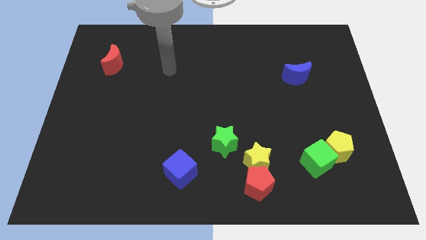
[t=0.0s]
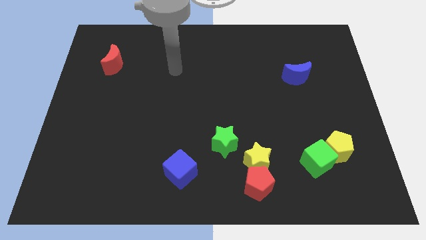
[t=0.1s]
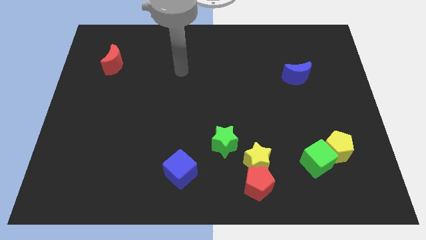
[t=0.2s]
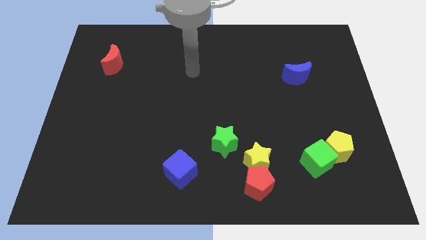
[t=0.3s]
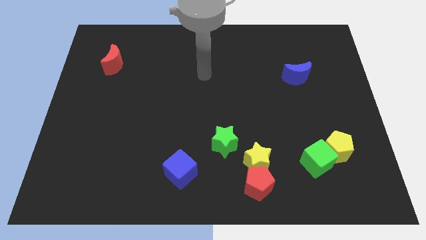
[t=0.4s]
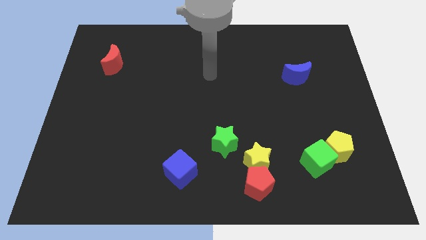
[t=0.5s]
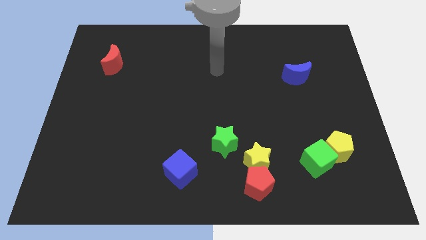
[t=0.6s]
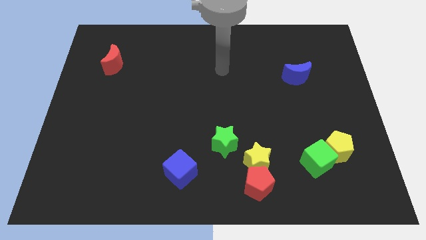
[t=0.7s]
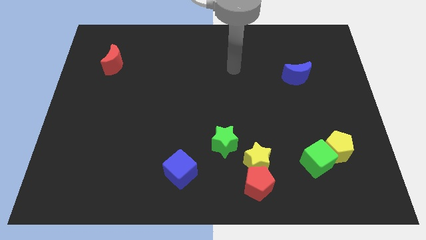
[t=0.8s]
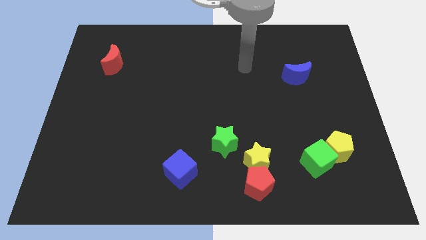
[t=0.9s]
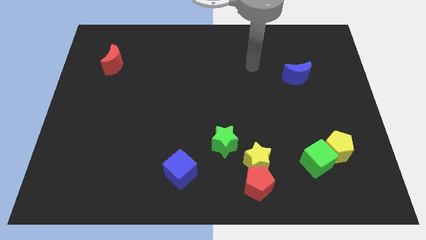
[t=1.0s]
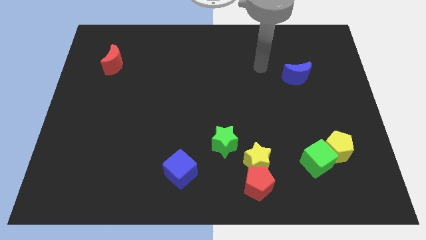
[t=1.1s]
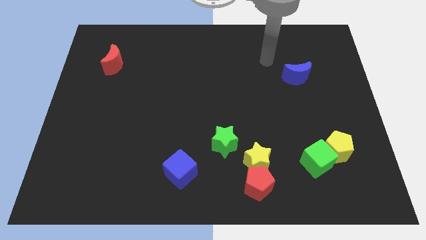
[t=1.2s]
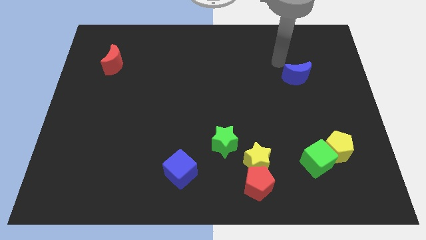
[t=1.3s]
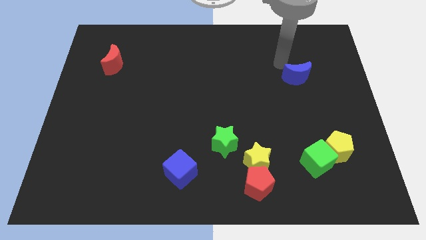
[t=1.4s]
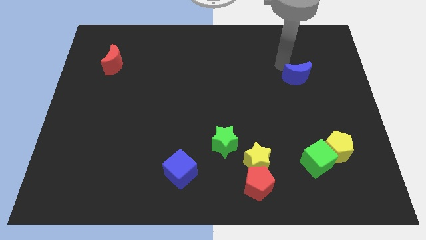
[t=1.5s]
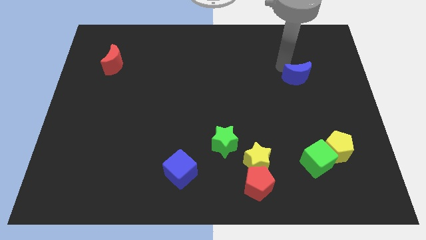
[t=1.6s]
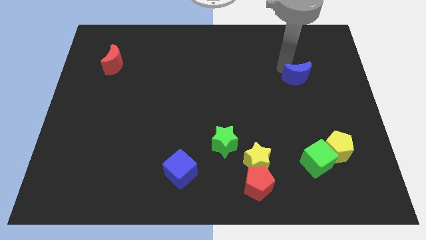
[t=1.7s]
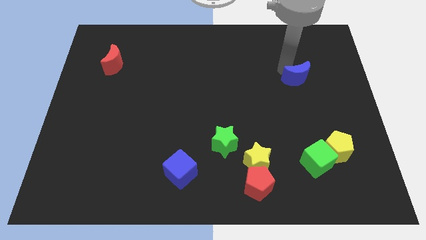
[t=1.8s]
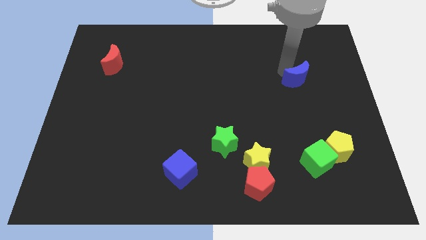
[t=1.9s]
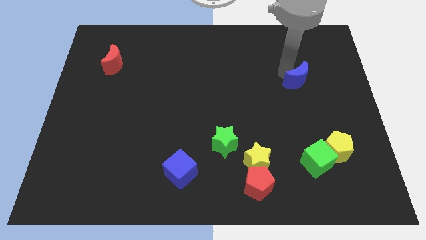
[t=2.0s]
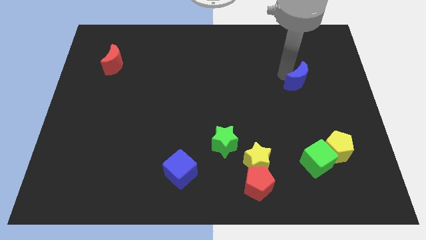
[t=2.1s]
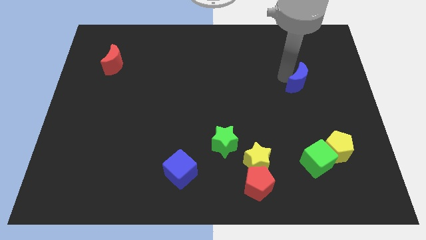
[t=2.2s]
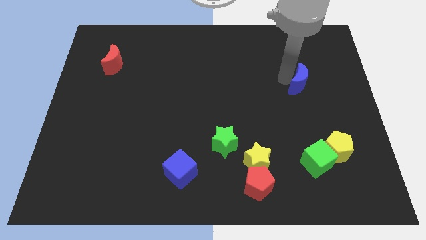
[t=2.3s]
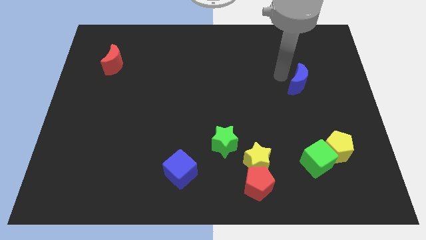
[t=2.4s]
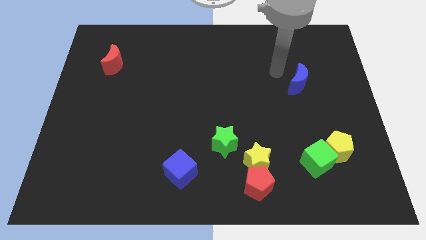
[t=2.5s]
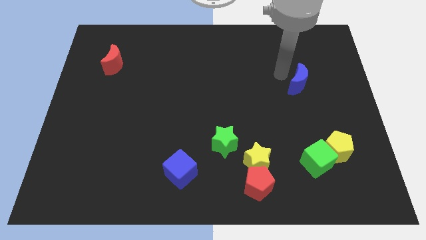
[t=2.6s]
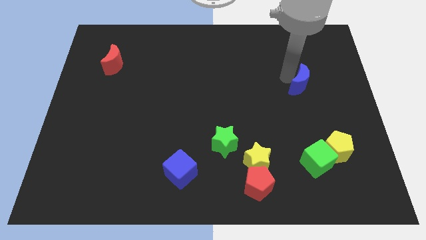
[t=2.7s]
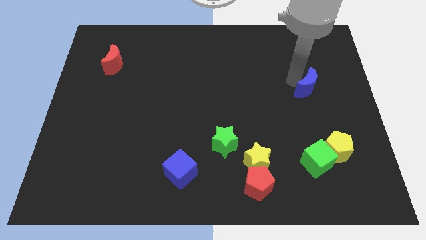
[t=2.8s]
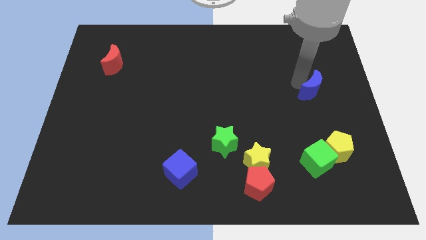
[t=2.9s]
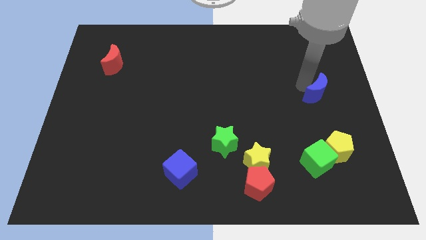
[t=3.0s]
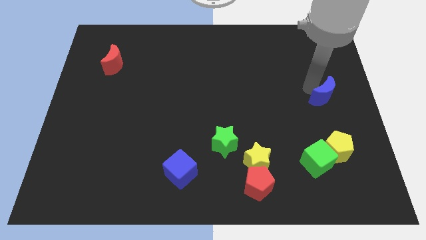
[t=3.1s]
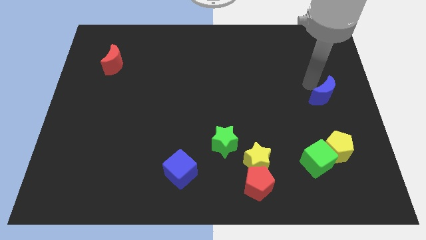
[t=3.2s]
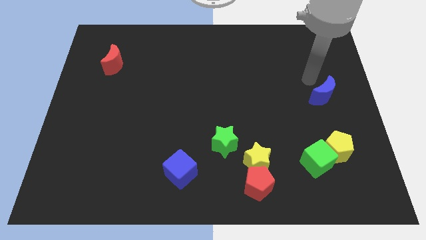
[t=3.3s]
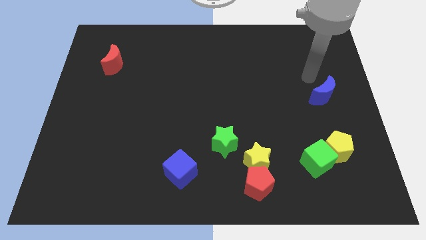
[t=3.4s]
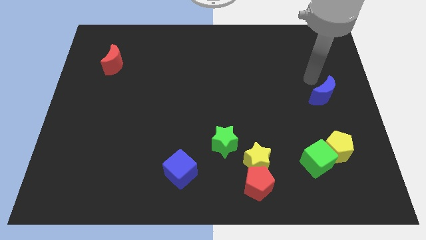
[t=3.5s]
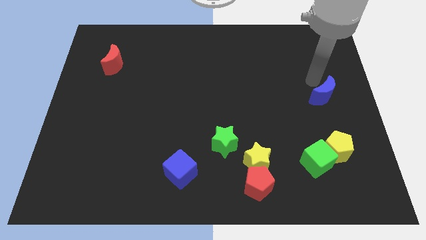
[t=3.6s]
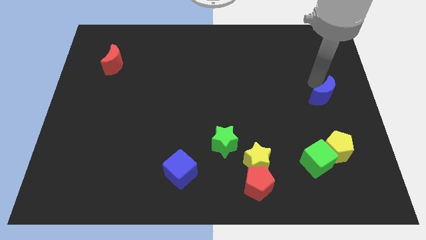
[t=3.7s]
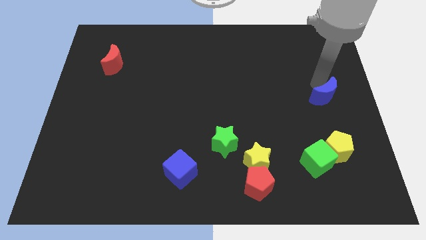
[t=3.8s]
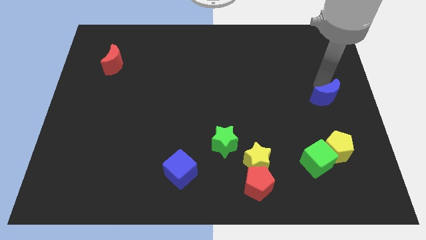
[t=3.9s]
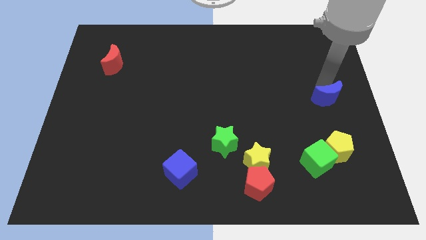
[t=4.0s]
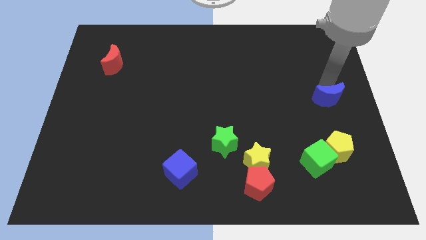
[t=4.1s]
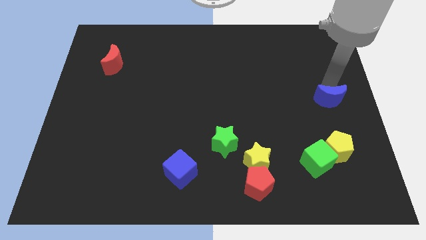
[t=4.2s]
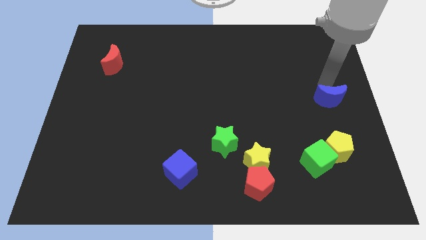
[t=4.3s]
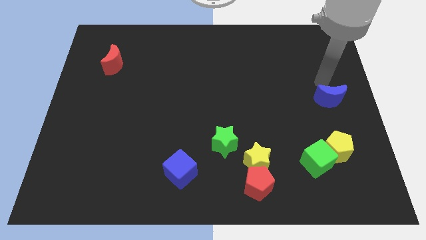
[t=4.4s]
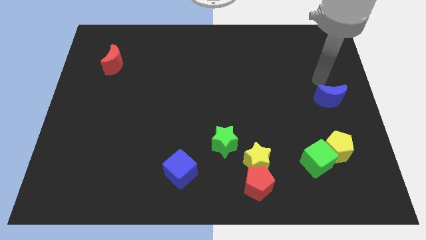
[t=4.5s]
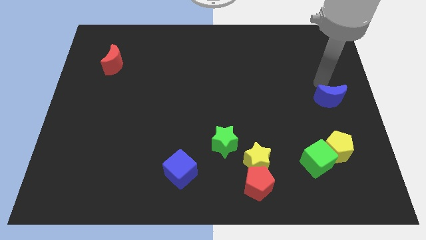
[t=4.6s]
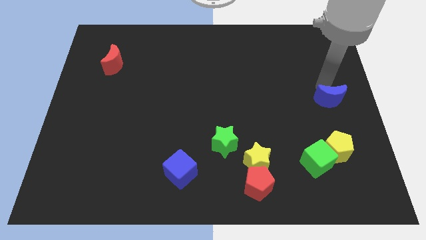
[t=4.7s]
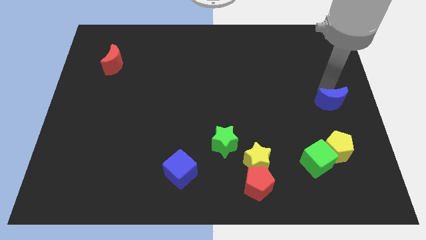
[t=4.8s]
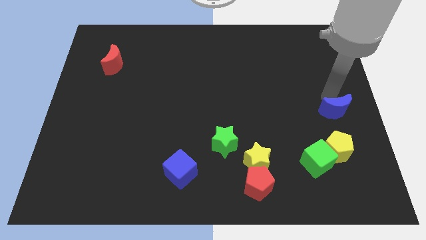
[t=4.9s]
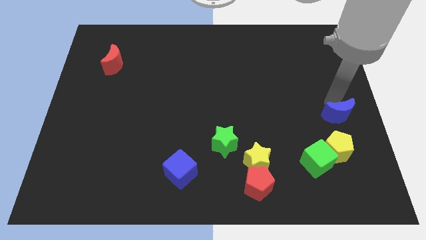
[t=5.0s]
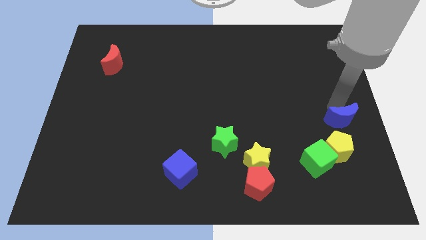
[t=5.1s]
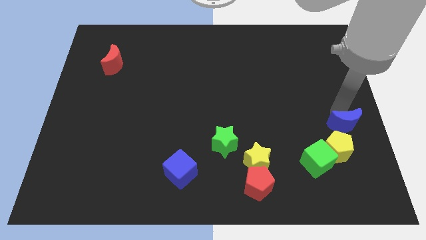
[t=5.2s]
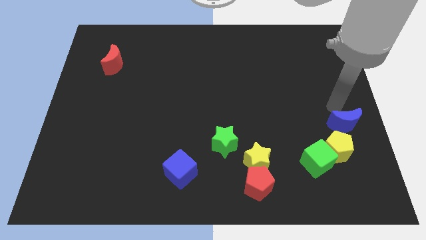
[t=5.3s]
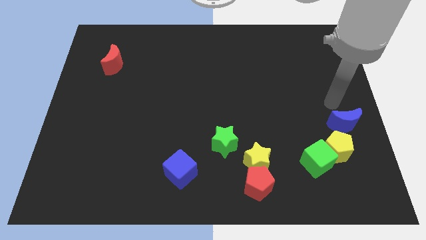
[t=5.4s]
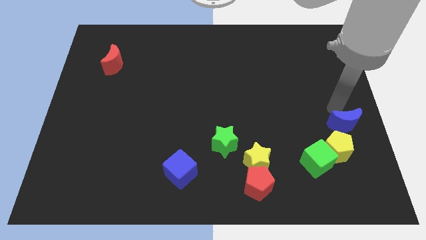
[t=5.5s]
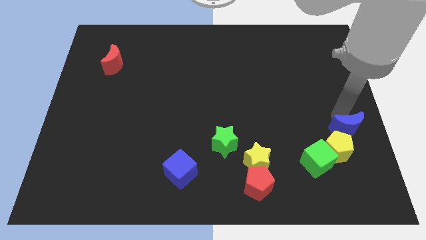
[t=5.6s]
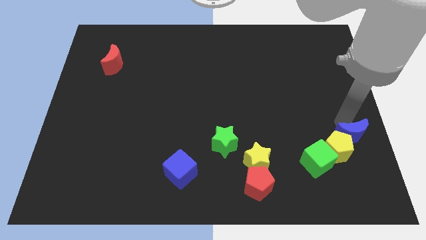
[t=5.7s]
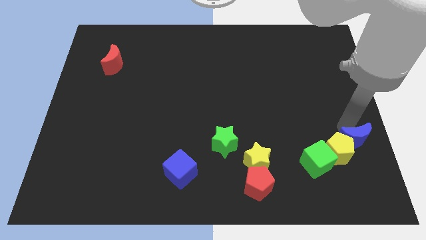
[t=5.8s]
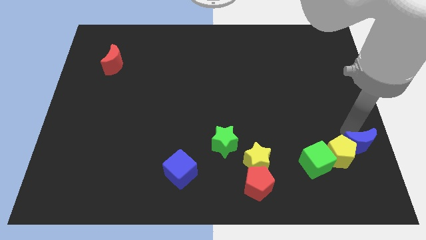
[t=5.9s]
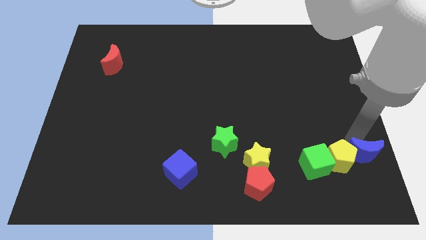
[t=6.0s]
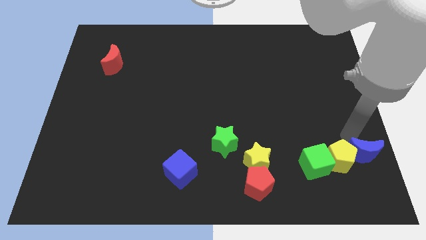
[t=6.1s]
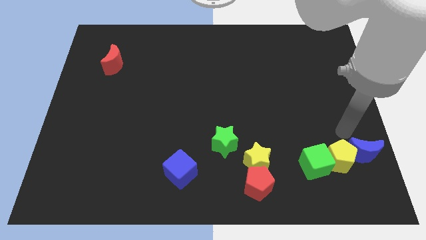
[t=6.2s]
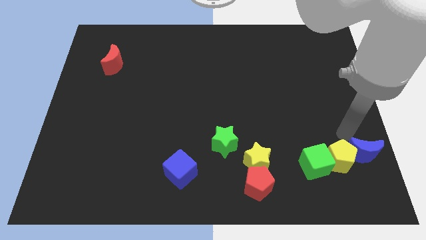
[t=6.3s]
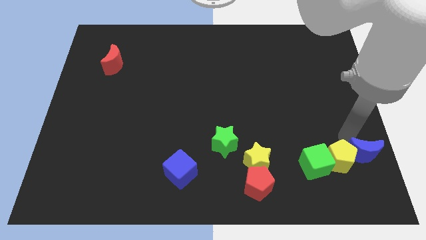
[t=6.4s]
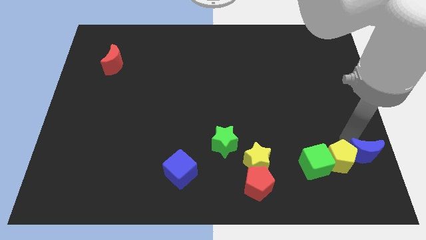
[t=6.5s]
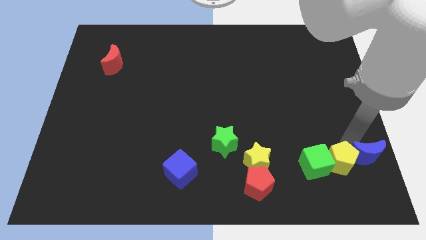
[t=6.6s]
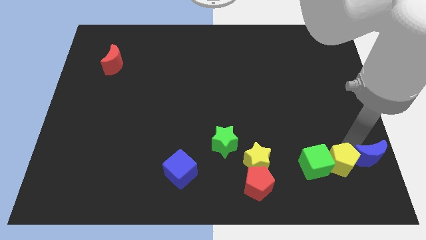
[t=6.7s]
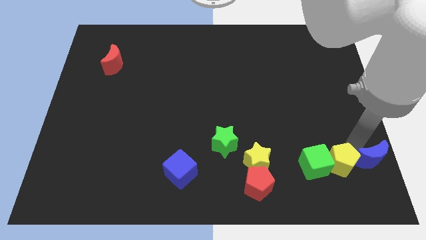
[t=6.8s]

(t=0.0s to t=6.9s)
move the blue moon to the bottom right

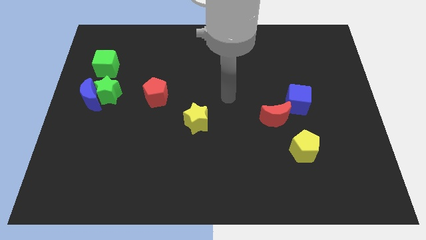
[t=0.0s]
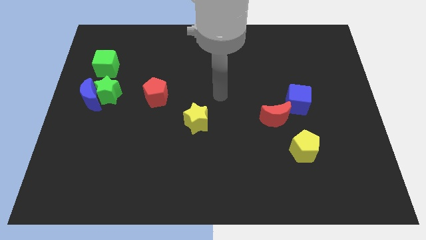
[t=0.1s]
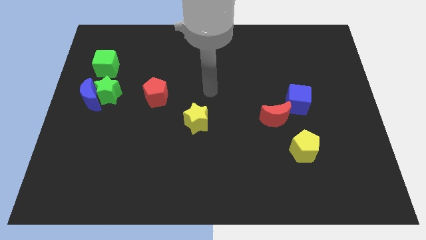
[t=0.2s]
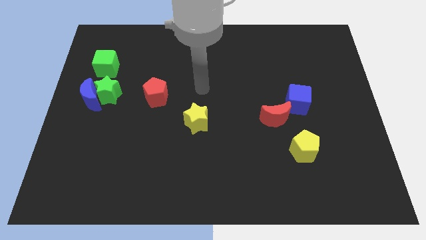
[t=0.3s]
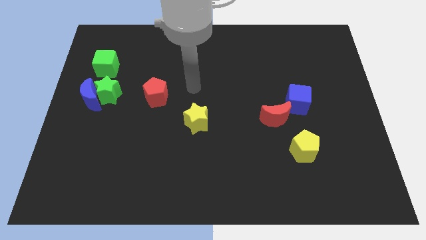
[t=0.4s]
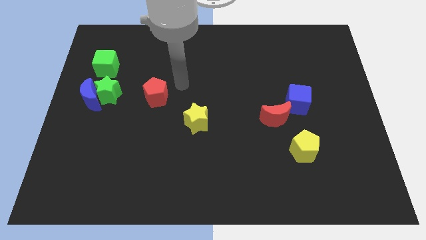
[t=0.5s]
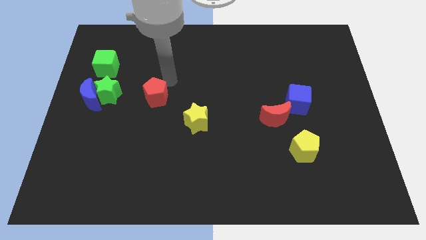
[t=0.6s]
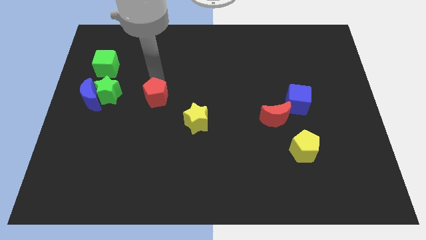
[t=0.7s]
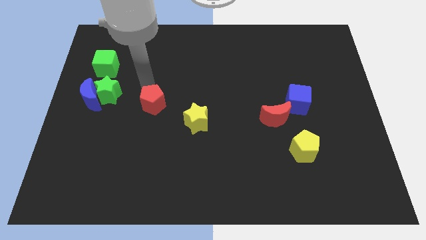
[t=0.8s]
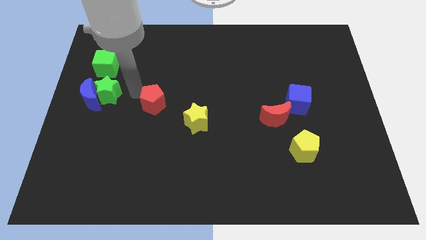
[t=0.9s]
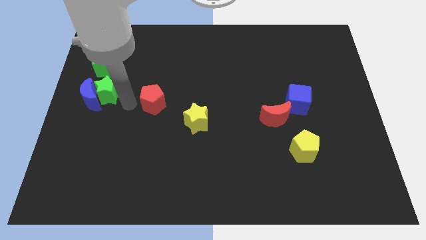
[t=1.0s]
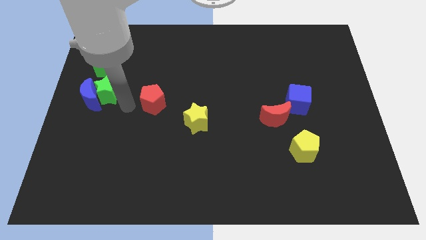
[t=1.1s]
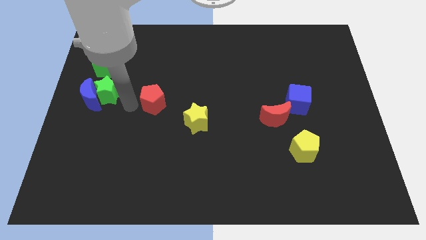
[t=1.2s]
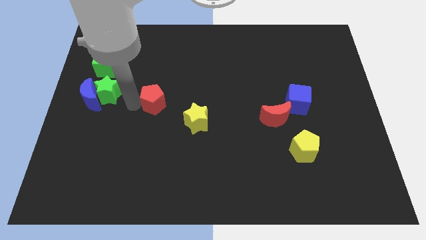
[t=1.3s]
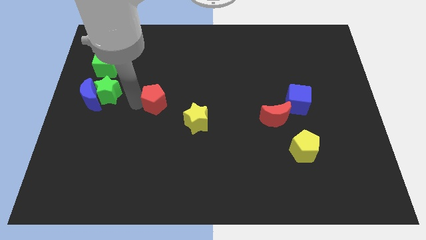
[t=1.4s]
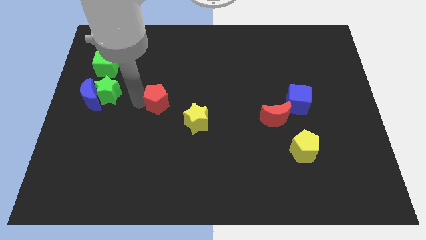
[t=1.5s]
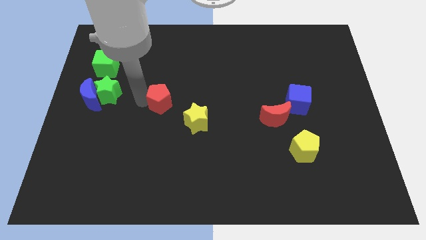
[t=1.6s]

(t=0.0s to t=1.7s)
slide the red pentagon to the middle
